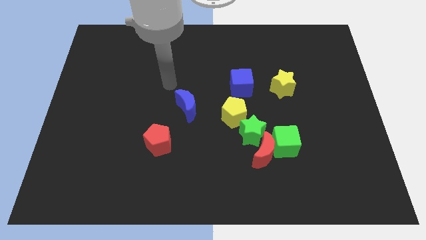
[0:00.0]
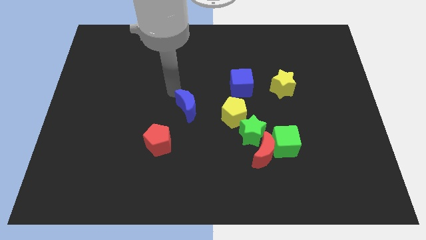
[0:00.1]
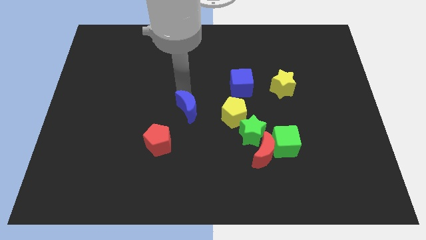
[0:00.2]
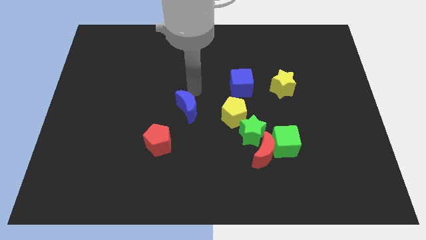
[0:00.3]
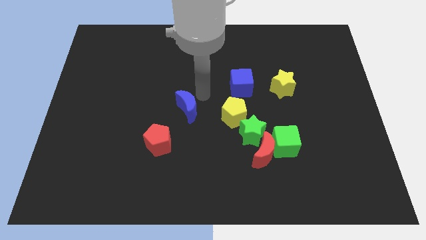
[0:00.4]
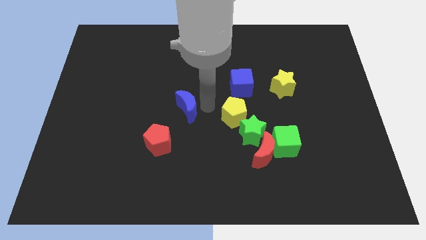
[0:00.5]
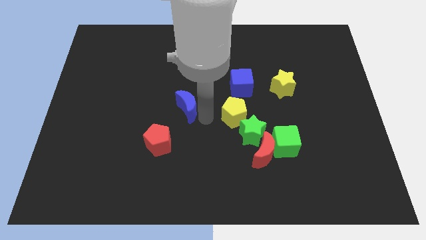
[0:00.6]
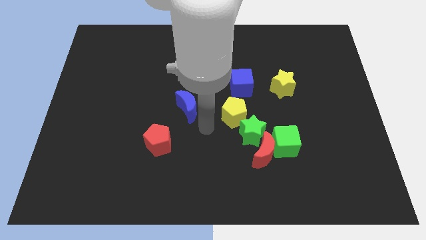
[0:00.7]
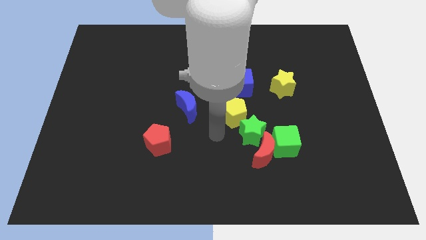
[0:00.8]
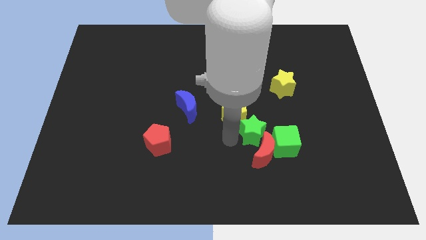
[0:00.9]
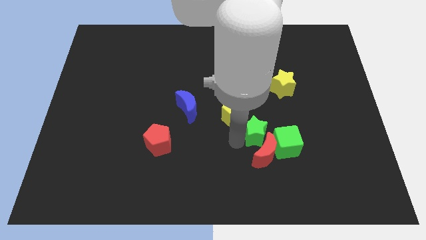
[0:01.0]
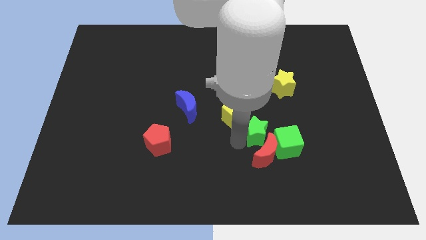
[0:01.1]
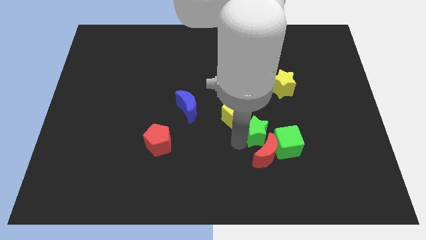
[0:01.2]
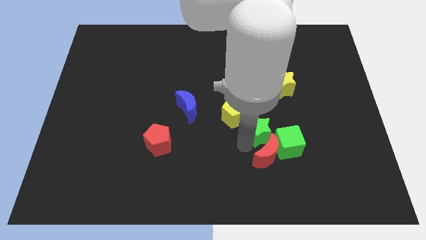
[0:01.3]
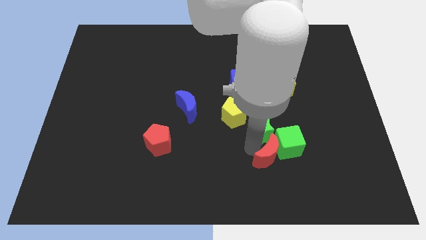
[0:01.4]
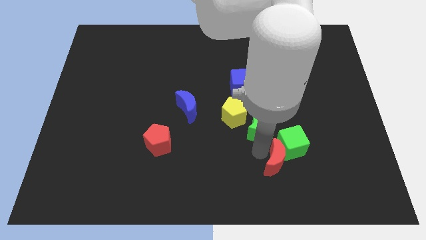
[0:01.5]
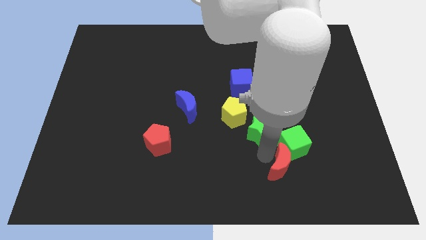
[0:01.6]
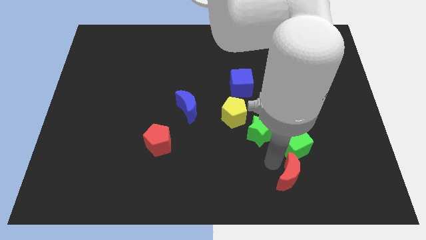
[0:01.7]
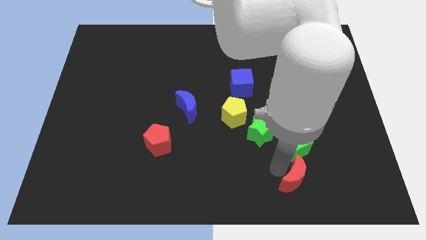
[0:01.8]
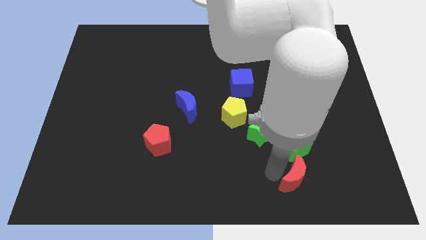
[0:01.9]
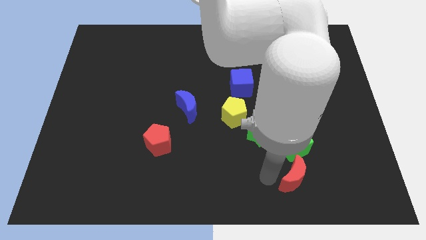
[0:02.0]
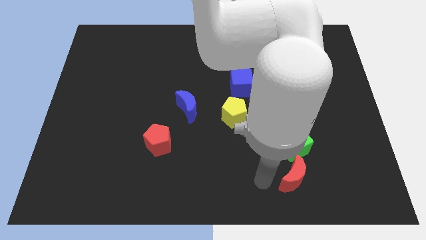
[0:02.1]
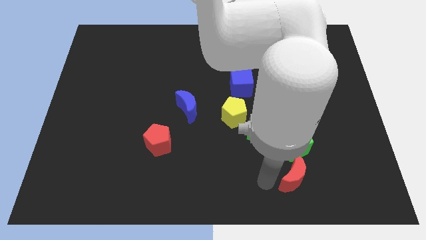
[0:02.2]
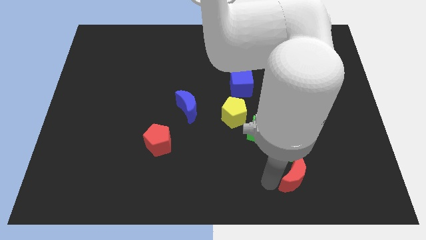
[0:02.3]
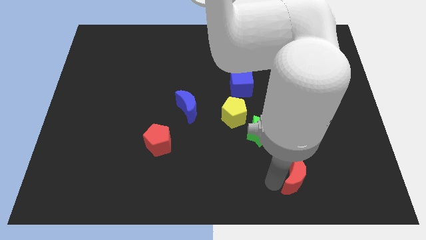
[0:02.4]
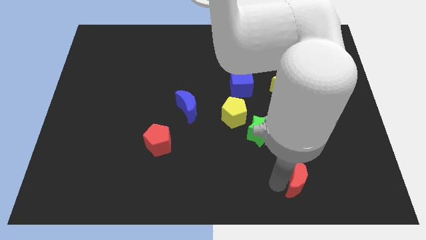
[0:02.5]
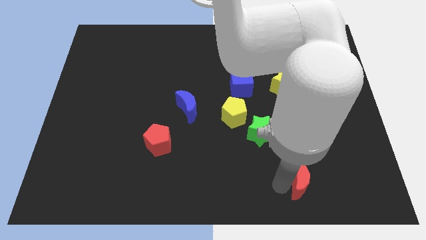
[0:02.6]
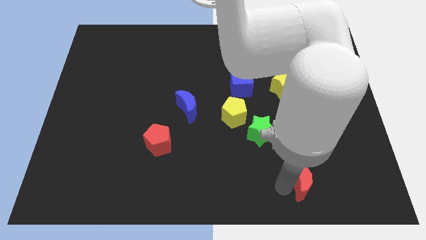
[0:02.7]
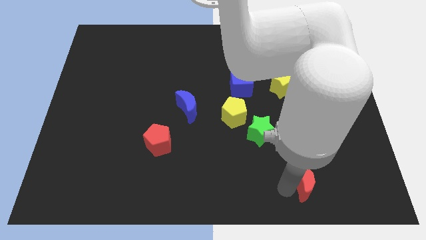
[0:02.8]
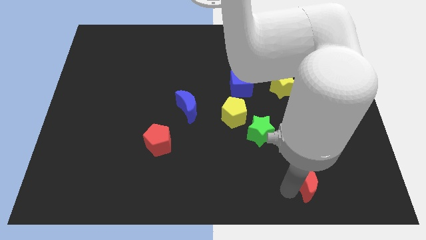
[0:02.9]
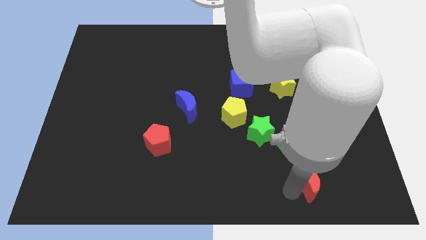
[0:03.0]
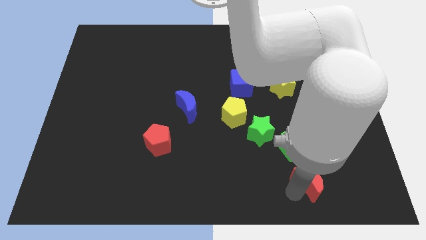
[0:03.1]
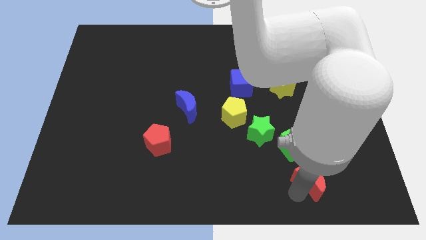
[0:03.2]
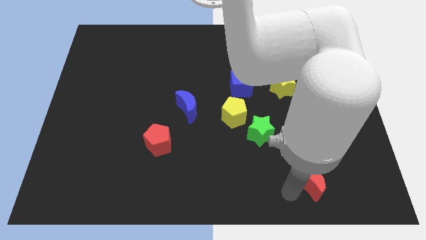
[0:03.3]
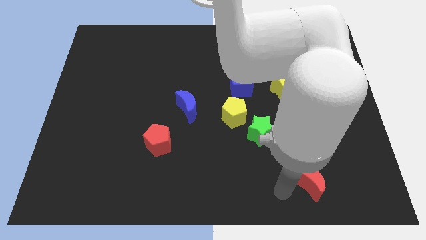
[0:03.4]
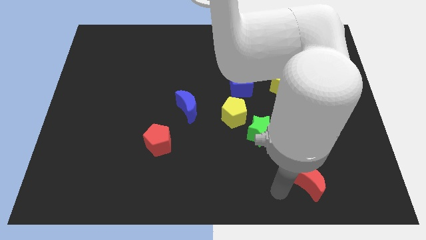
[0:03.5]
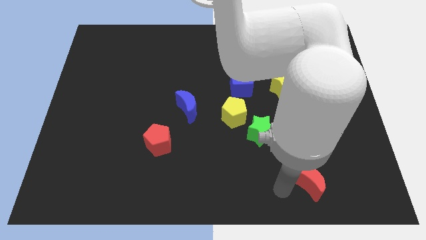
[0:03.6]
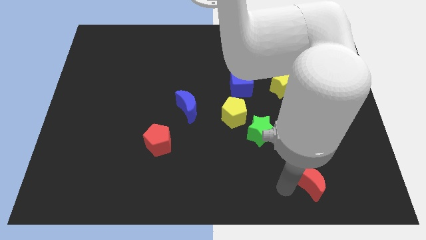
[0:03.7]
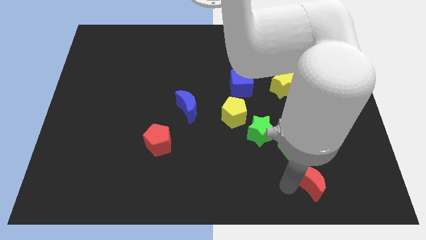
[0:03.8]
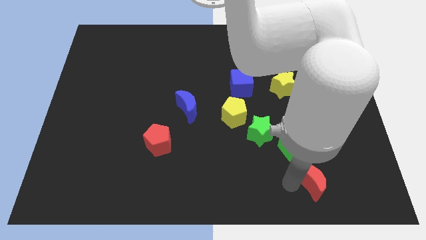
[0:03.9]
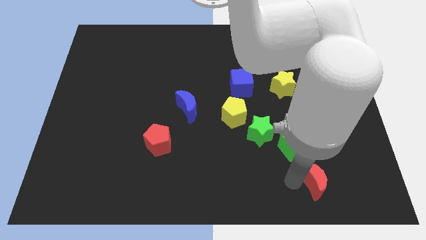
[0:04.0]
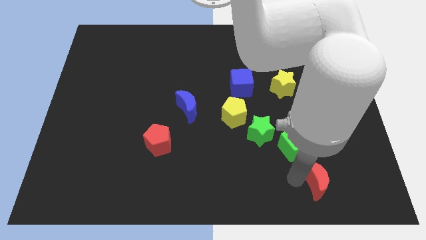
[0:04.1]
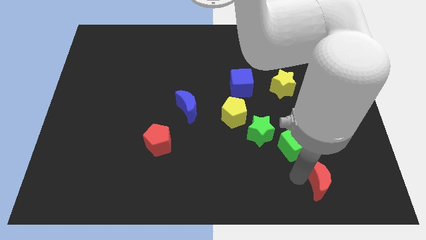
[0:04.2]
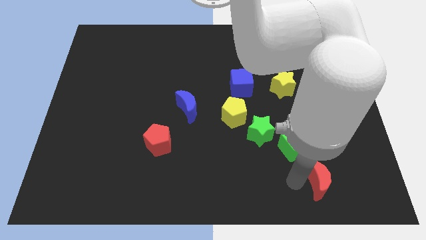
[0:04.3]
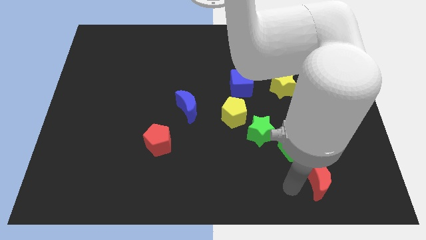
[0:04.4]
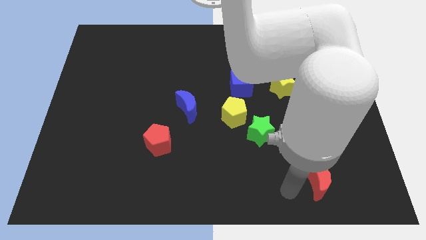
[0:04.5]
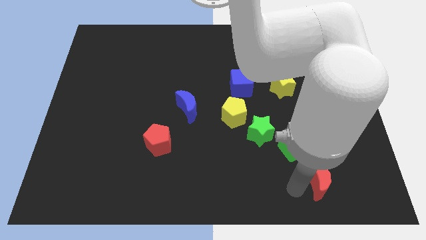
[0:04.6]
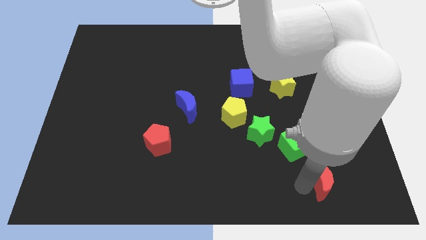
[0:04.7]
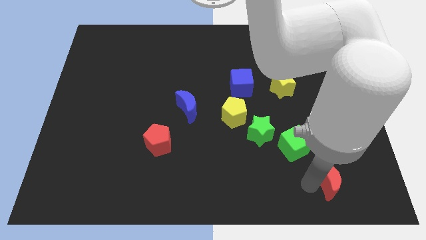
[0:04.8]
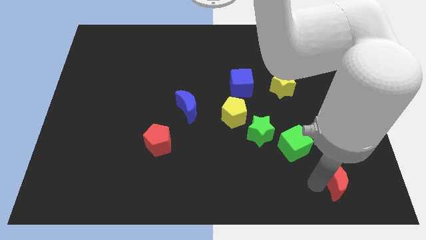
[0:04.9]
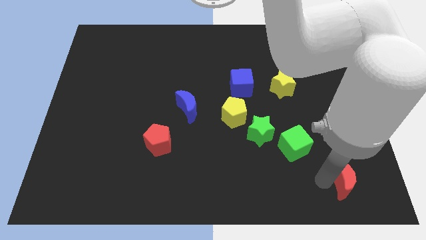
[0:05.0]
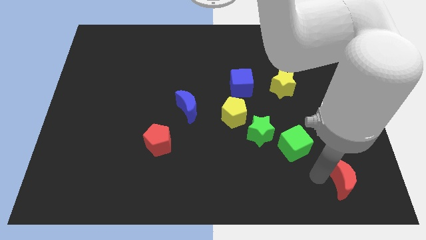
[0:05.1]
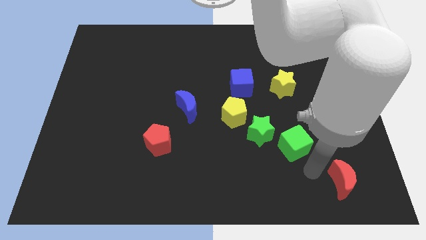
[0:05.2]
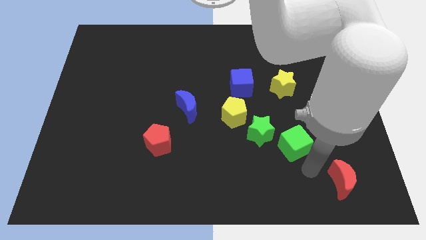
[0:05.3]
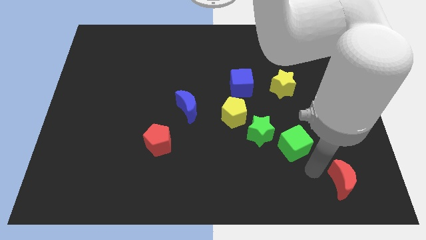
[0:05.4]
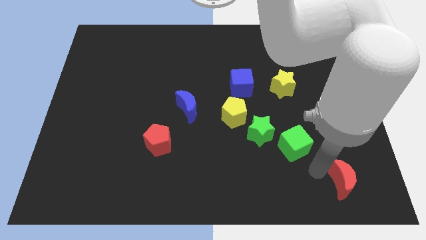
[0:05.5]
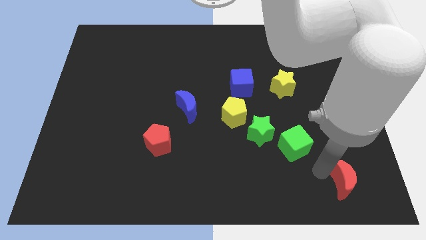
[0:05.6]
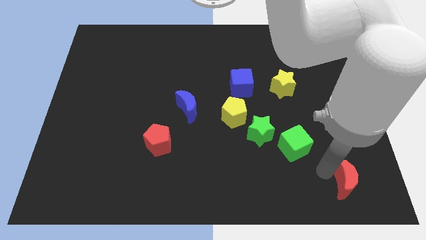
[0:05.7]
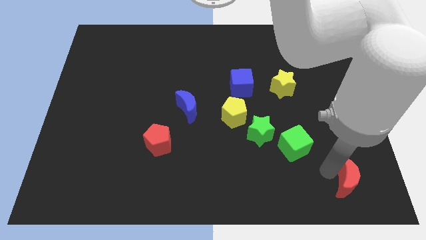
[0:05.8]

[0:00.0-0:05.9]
push the red moon to the bottom right of the board

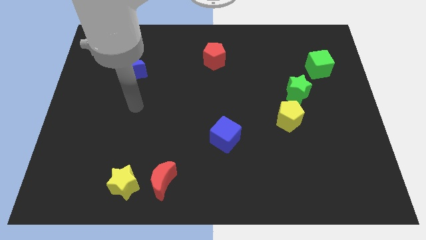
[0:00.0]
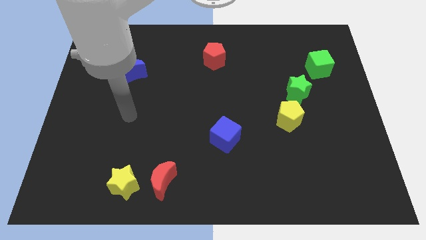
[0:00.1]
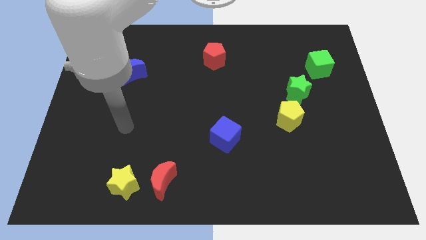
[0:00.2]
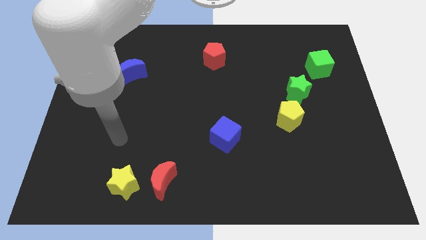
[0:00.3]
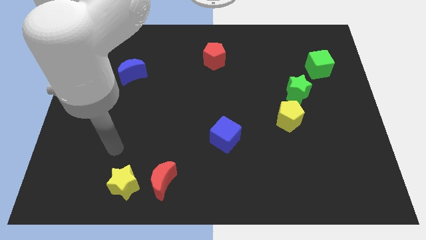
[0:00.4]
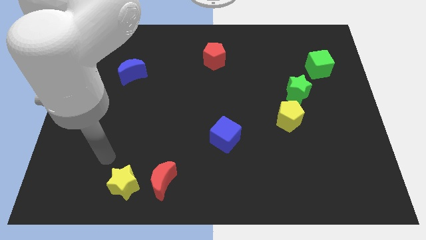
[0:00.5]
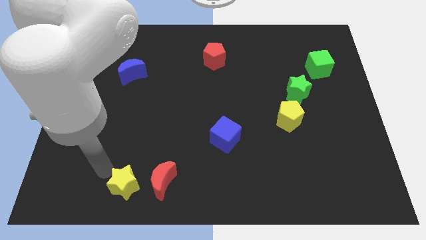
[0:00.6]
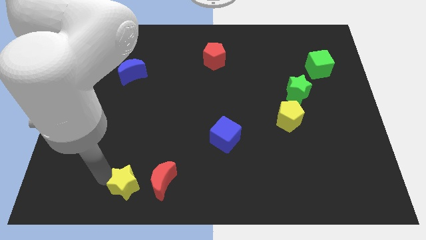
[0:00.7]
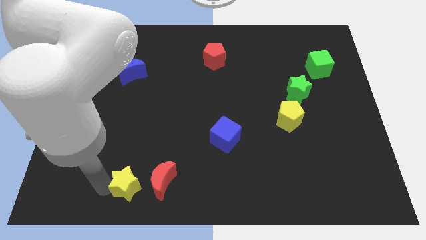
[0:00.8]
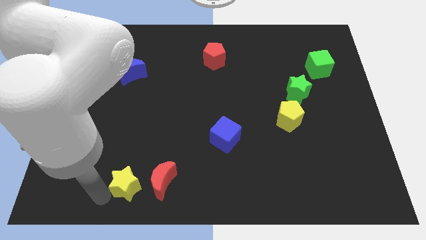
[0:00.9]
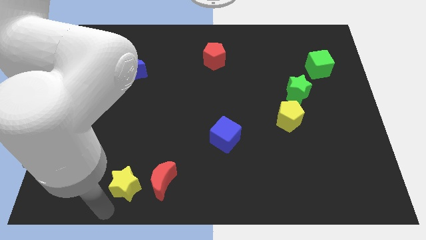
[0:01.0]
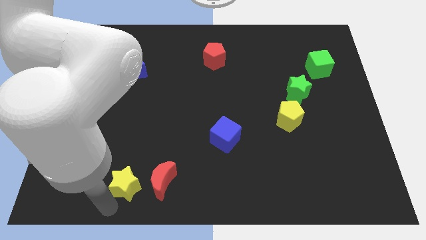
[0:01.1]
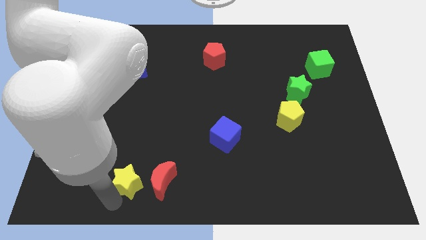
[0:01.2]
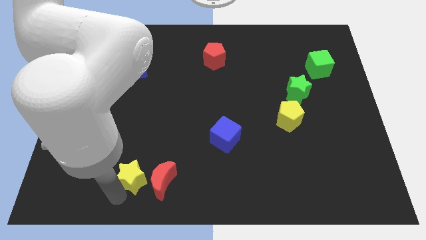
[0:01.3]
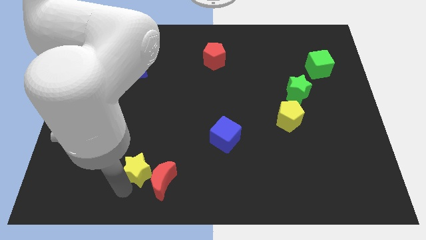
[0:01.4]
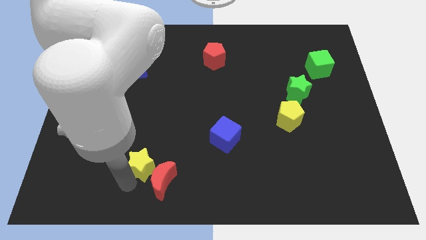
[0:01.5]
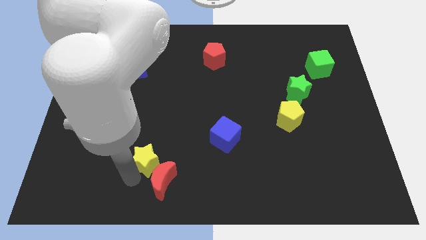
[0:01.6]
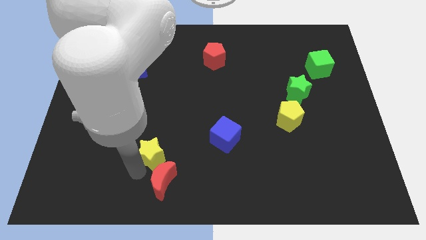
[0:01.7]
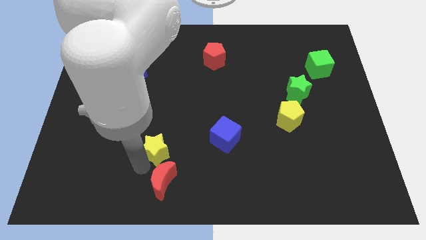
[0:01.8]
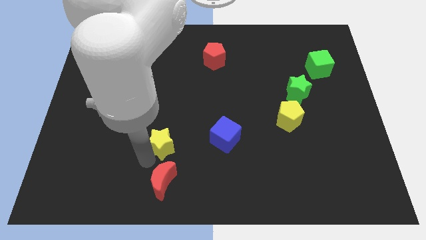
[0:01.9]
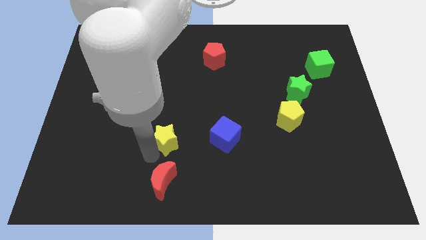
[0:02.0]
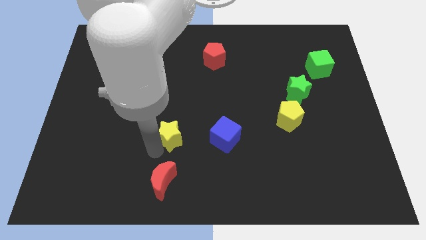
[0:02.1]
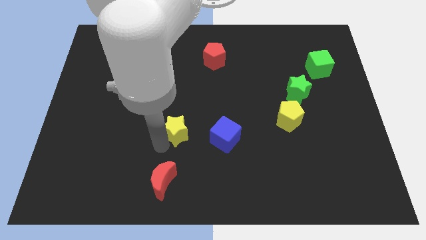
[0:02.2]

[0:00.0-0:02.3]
slide the yellow star to the middle of the board
